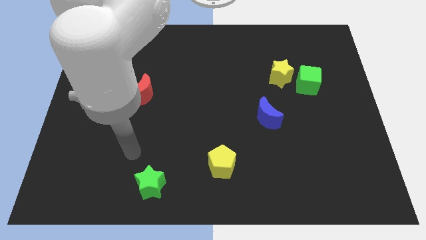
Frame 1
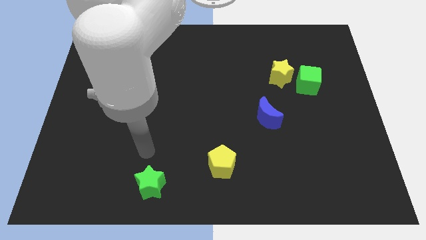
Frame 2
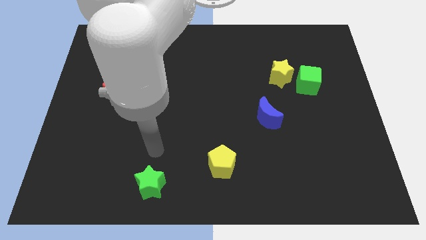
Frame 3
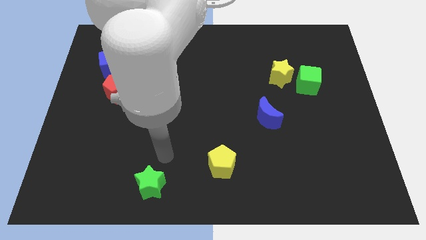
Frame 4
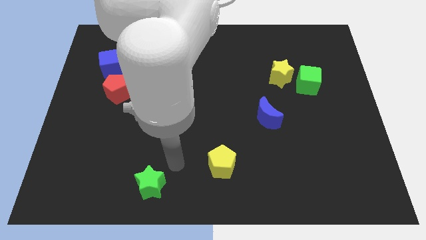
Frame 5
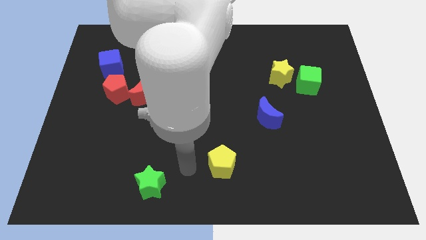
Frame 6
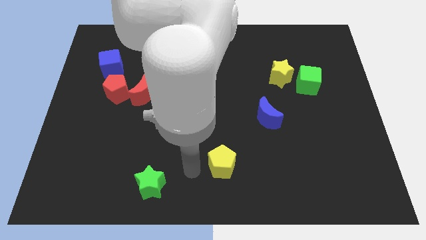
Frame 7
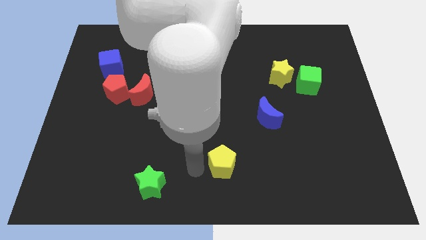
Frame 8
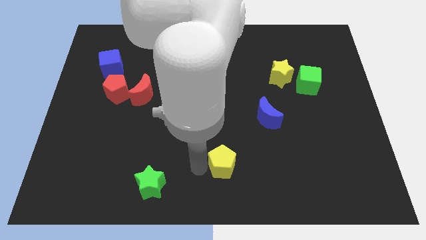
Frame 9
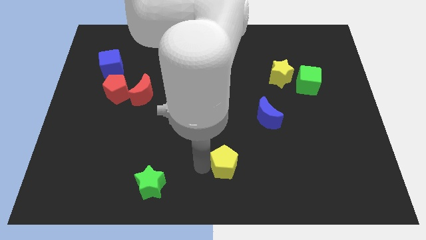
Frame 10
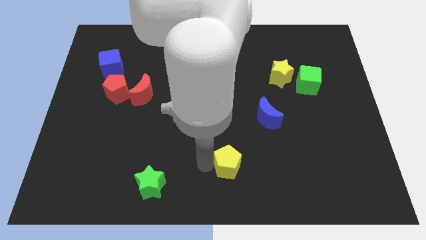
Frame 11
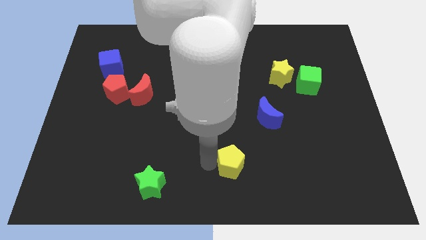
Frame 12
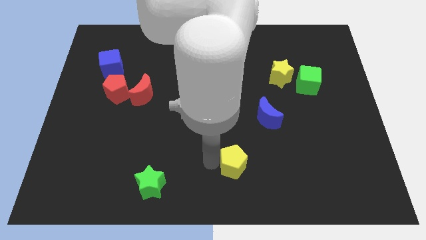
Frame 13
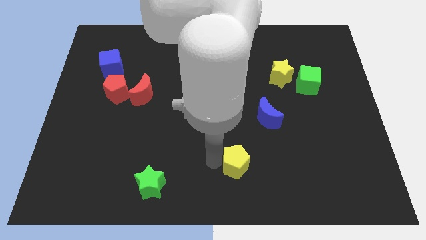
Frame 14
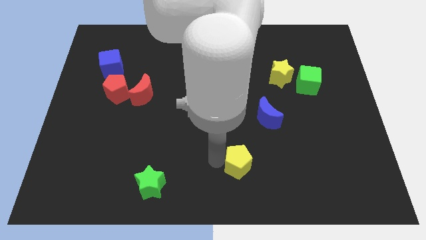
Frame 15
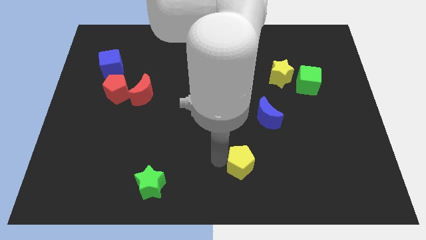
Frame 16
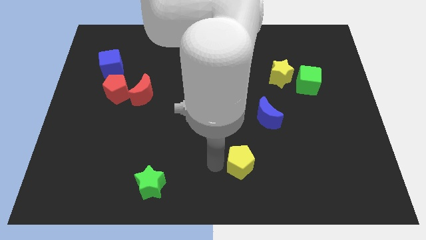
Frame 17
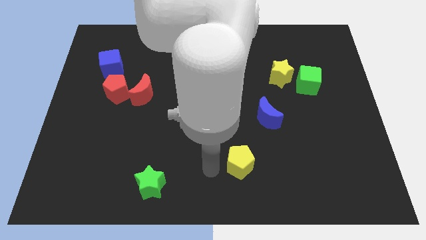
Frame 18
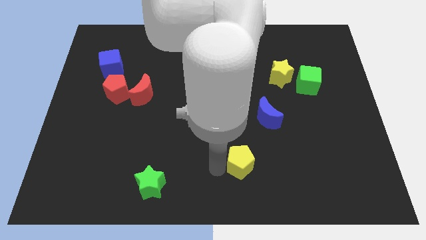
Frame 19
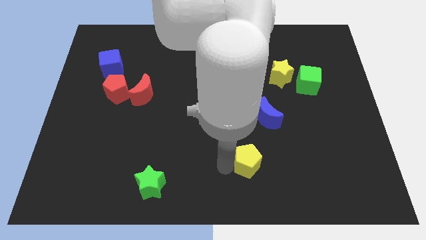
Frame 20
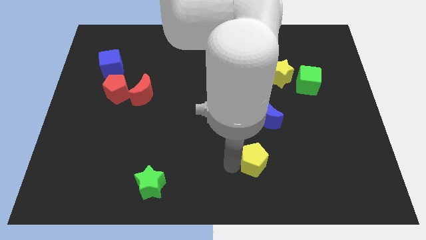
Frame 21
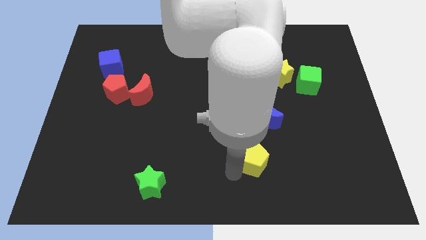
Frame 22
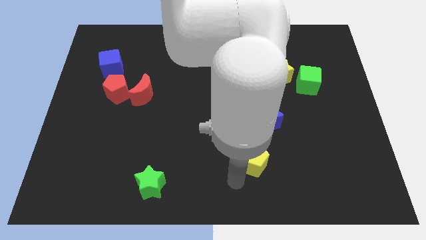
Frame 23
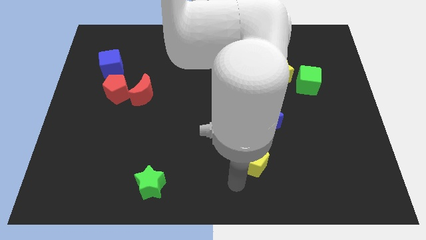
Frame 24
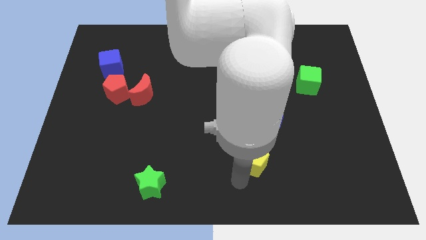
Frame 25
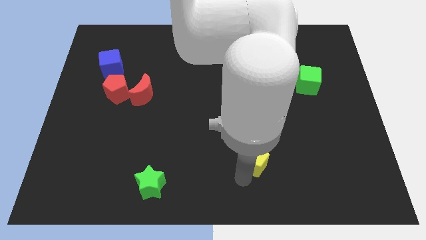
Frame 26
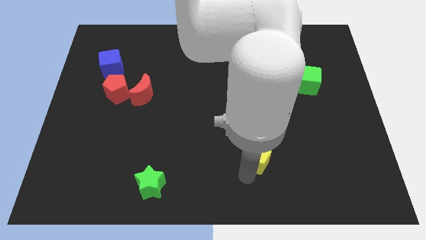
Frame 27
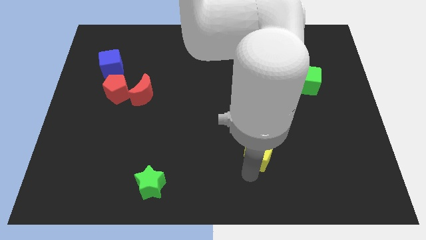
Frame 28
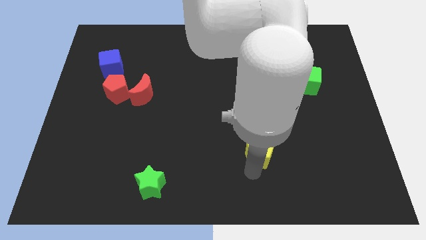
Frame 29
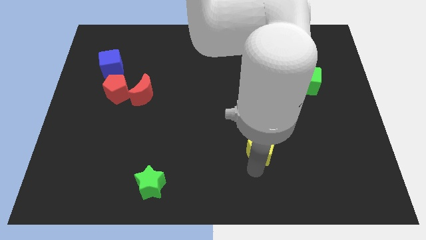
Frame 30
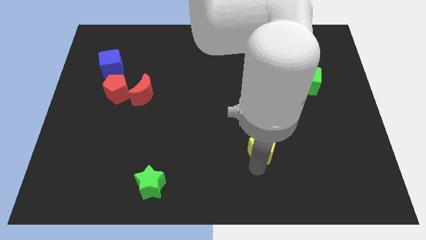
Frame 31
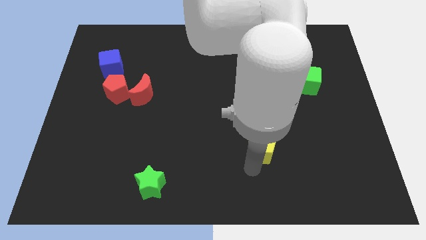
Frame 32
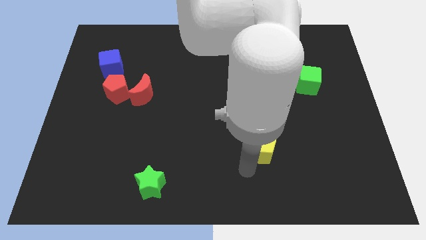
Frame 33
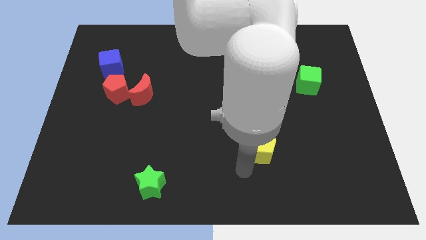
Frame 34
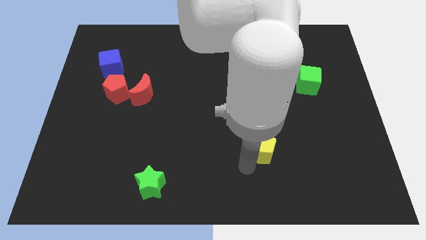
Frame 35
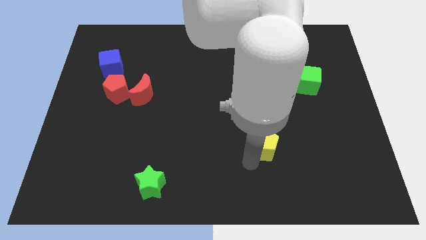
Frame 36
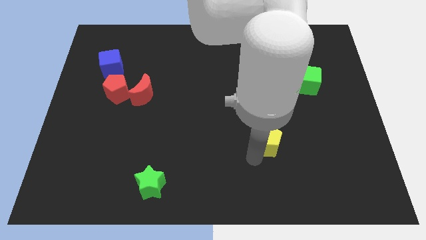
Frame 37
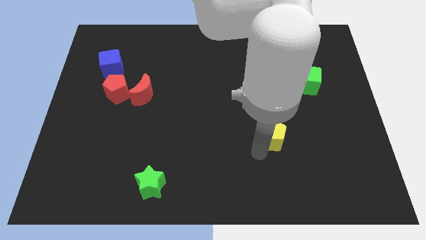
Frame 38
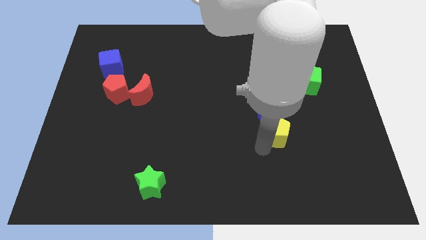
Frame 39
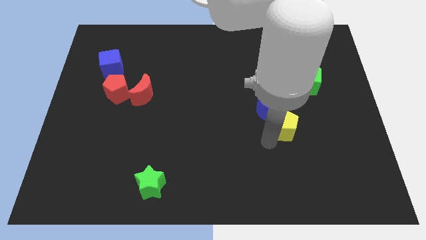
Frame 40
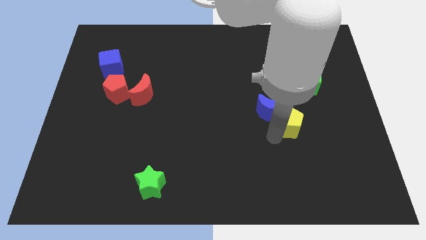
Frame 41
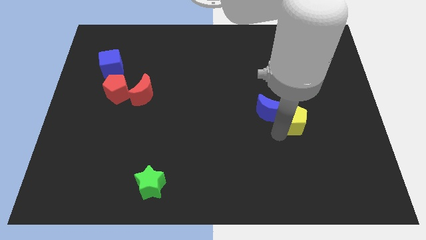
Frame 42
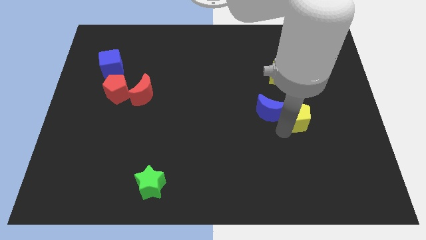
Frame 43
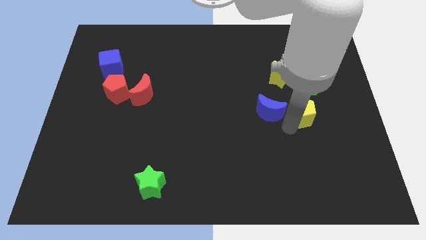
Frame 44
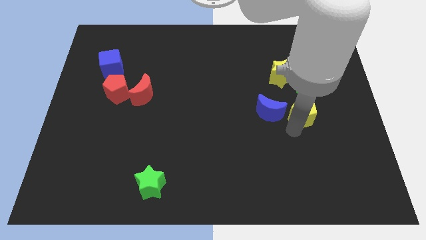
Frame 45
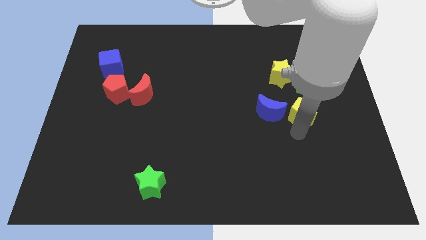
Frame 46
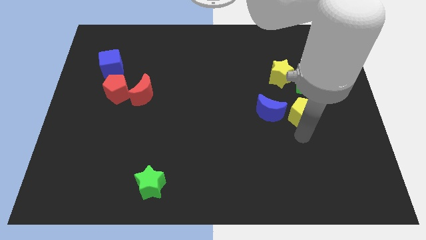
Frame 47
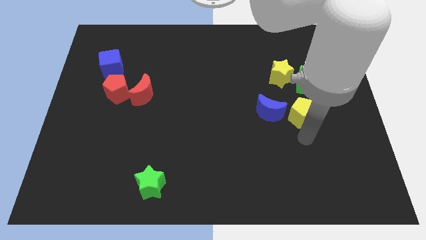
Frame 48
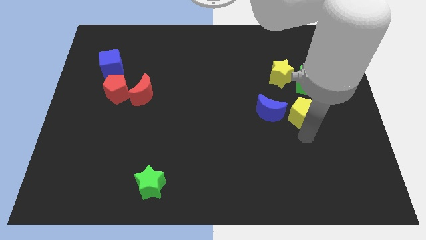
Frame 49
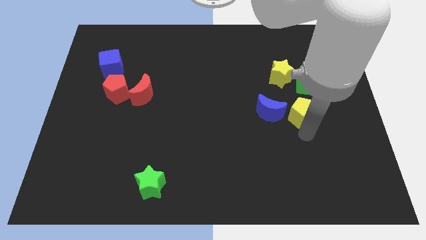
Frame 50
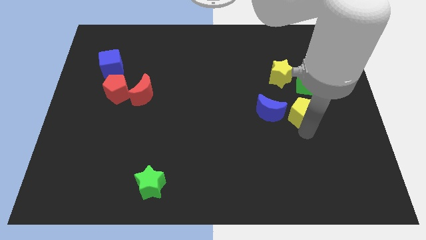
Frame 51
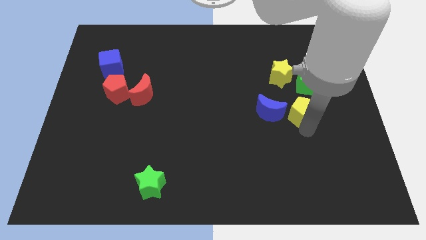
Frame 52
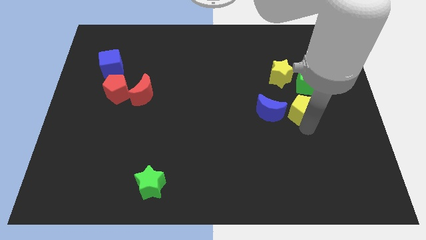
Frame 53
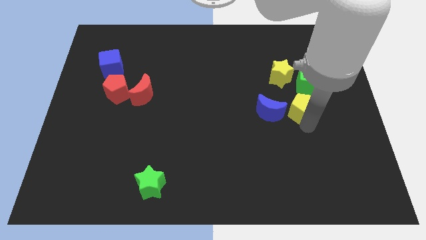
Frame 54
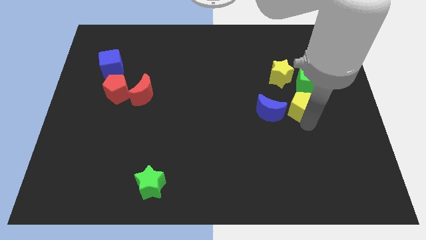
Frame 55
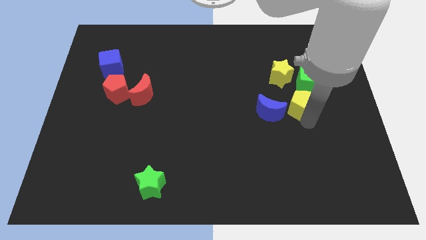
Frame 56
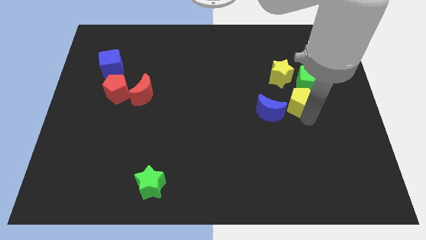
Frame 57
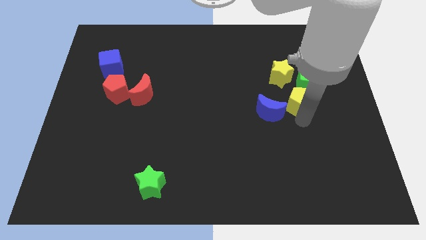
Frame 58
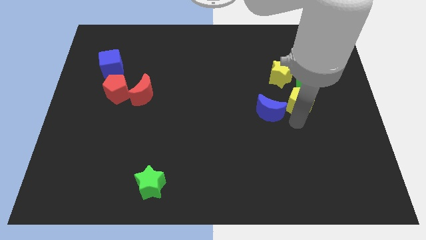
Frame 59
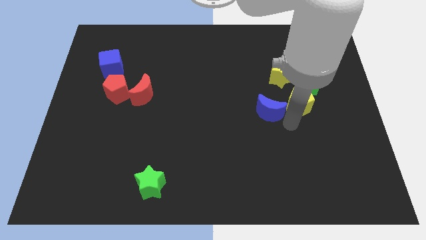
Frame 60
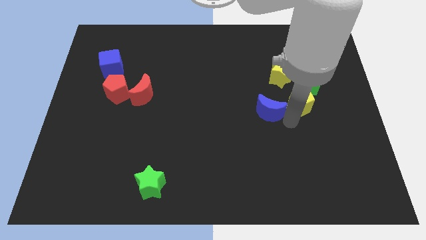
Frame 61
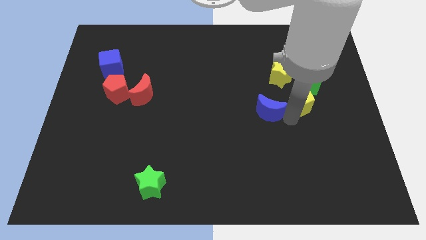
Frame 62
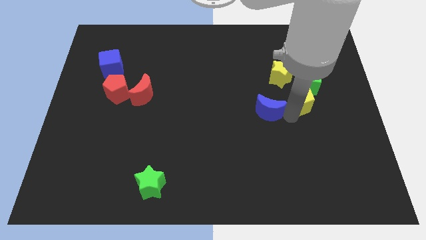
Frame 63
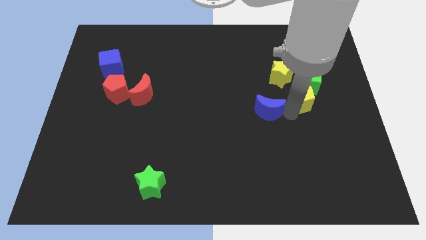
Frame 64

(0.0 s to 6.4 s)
slide the yellow pentagon close to the green cube

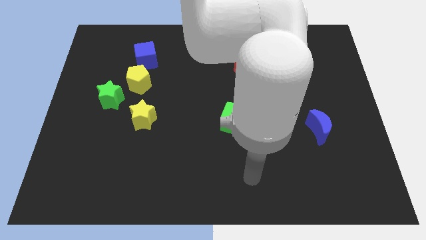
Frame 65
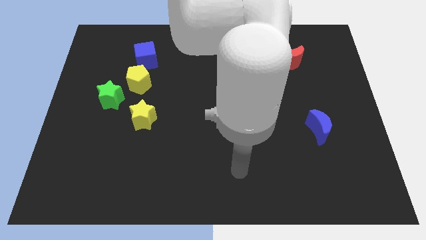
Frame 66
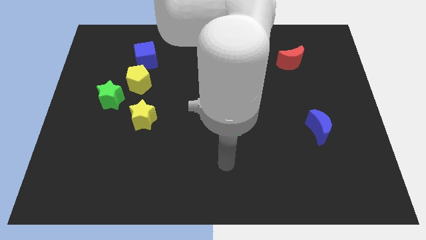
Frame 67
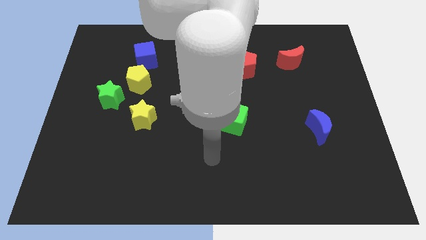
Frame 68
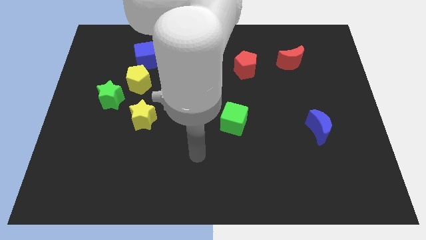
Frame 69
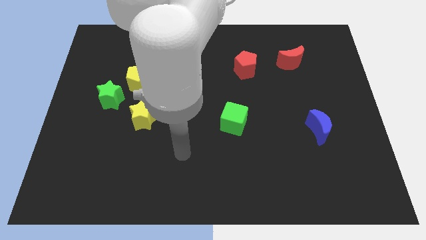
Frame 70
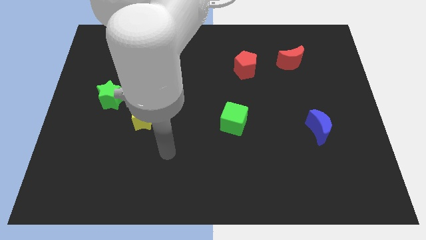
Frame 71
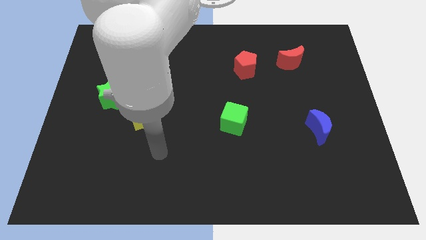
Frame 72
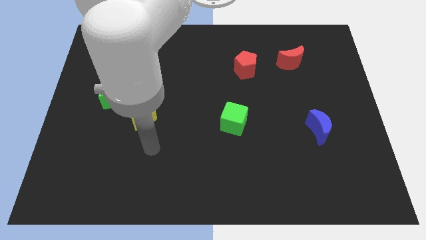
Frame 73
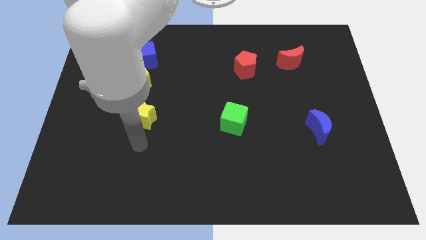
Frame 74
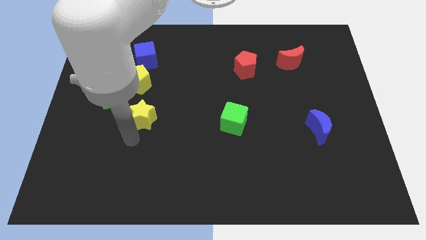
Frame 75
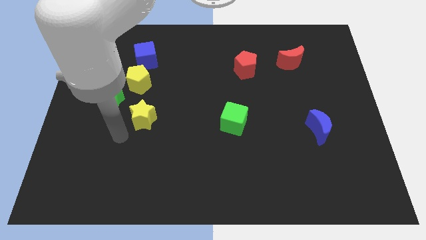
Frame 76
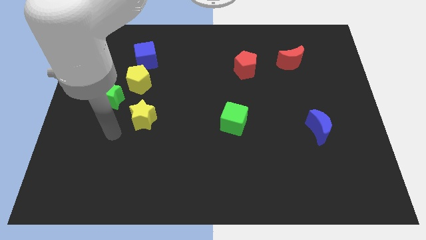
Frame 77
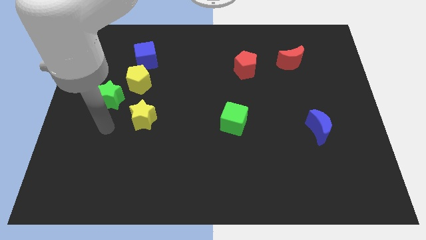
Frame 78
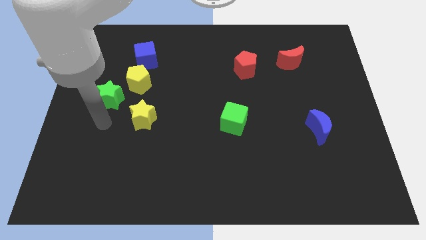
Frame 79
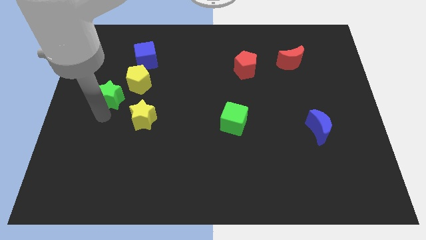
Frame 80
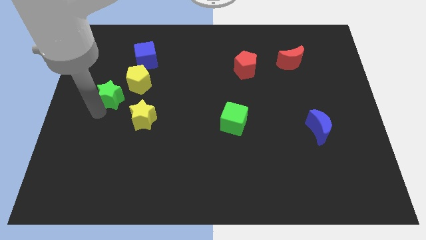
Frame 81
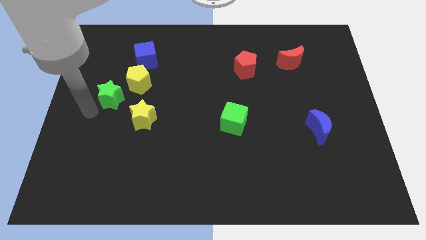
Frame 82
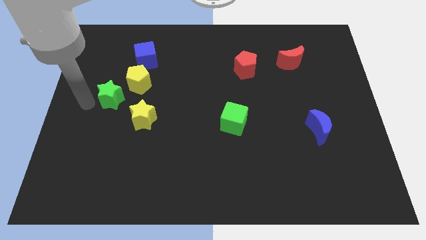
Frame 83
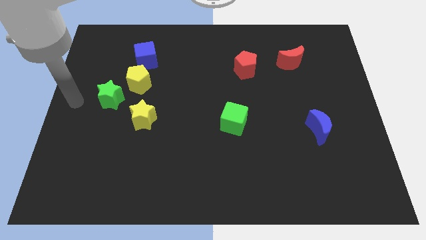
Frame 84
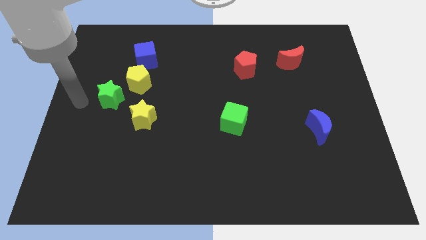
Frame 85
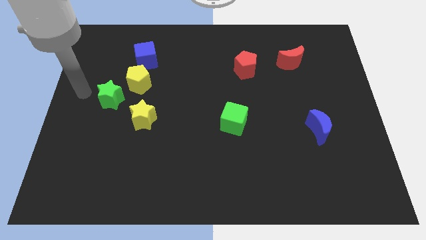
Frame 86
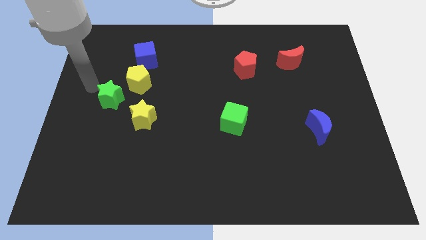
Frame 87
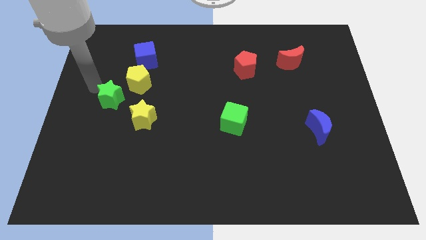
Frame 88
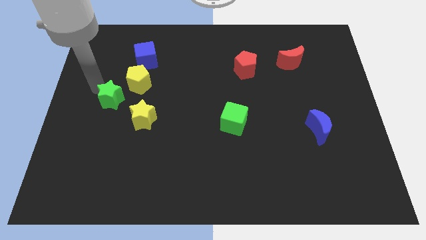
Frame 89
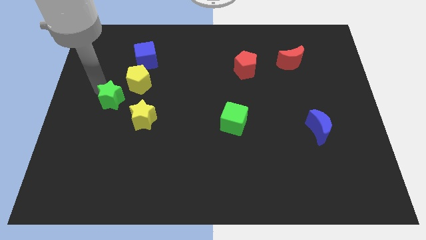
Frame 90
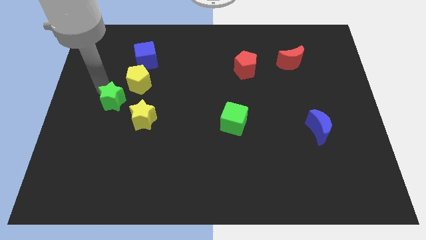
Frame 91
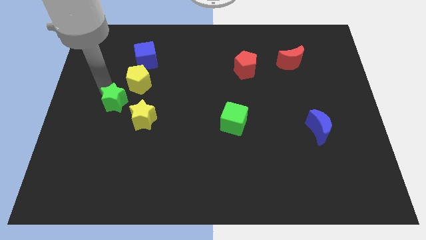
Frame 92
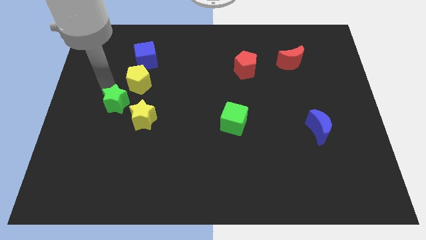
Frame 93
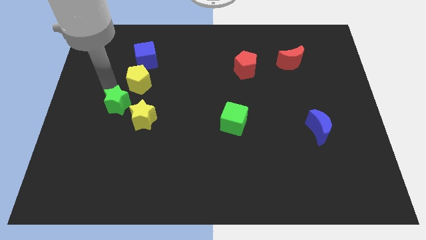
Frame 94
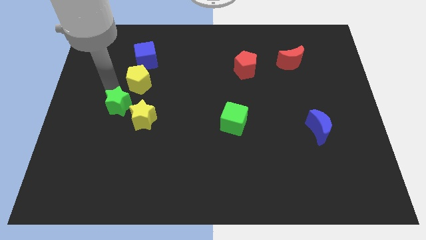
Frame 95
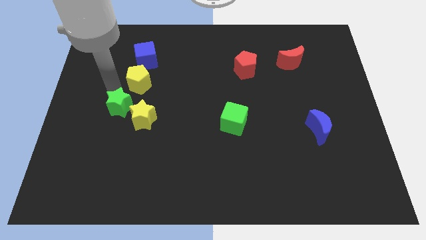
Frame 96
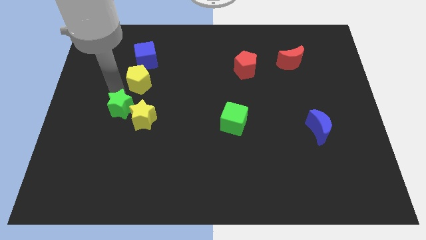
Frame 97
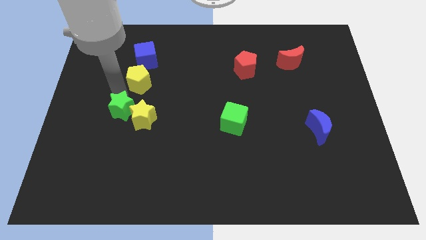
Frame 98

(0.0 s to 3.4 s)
slide the green star close to the yellow star
